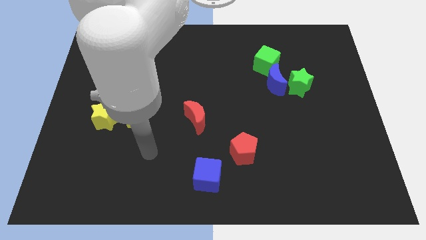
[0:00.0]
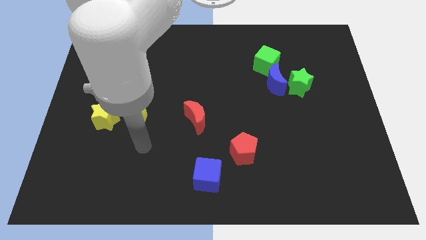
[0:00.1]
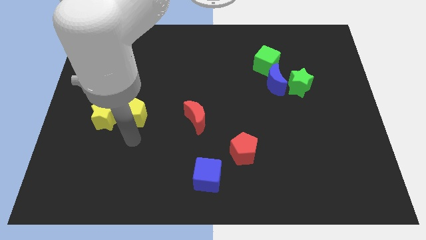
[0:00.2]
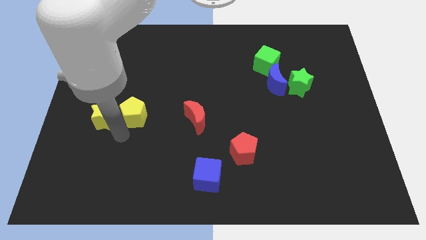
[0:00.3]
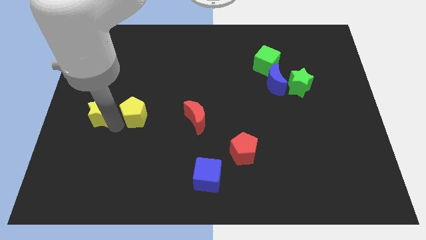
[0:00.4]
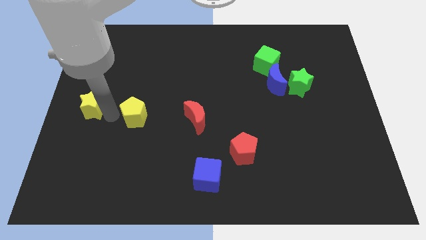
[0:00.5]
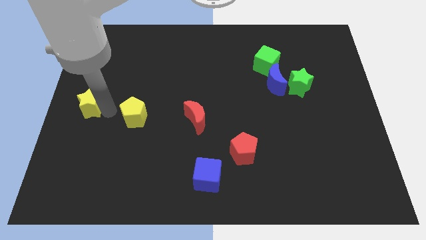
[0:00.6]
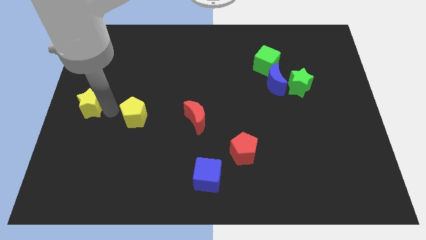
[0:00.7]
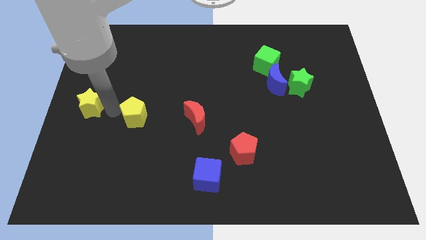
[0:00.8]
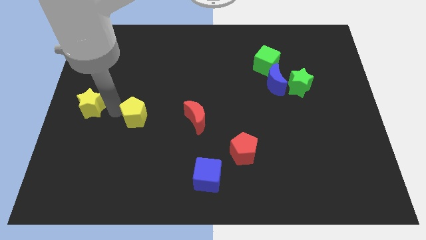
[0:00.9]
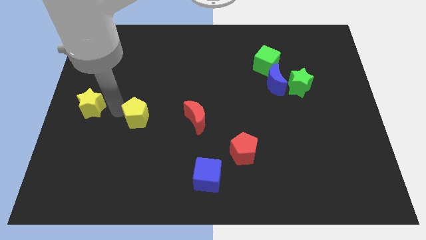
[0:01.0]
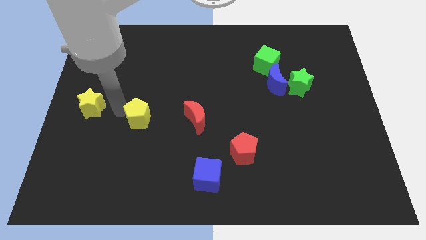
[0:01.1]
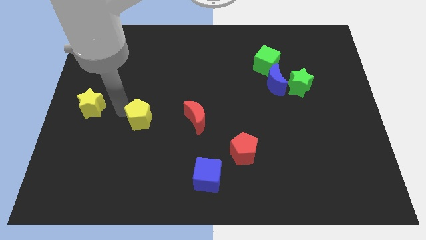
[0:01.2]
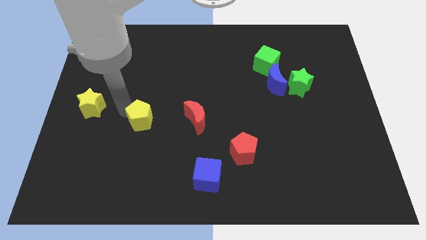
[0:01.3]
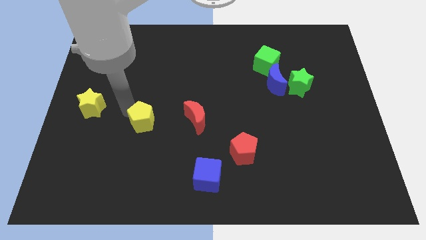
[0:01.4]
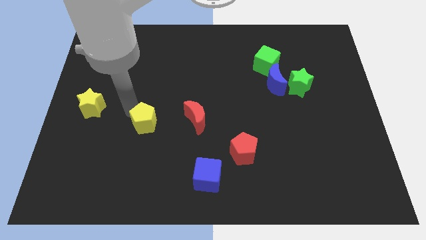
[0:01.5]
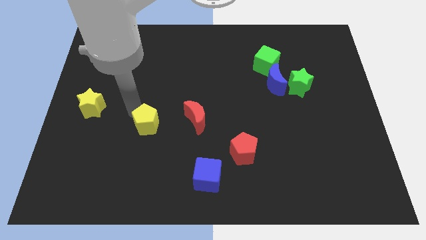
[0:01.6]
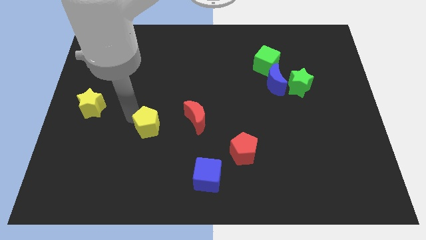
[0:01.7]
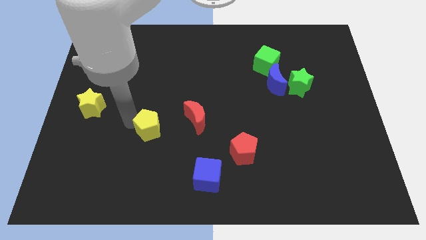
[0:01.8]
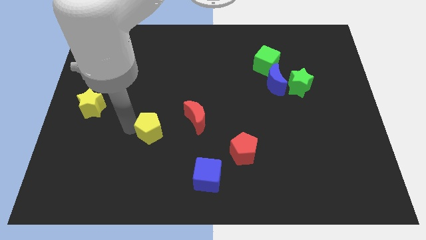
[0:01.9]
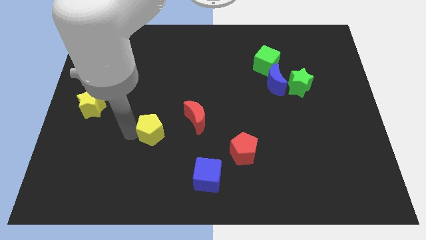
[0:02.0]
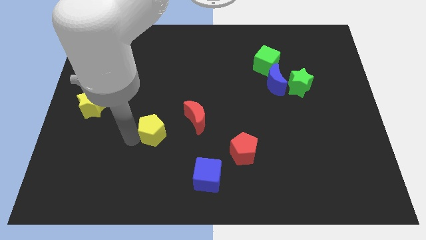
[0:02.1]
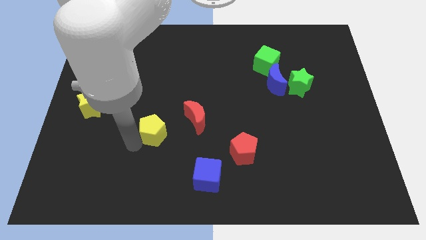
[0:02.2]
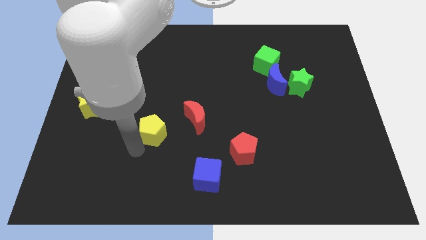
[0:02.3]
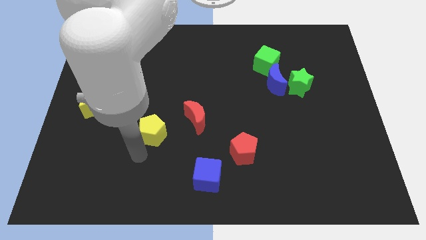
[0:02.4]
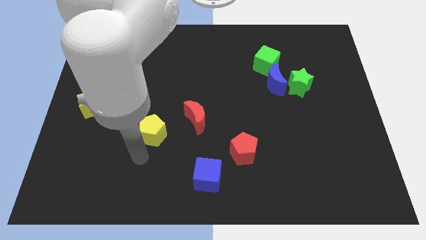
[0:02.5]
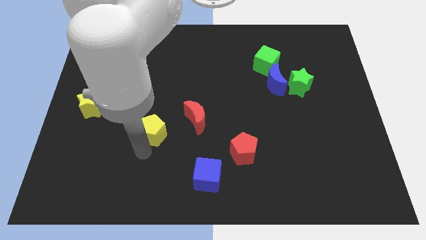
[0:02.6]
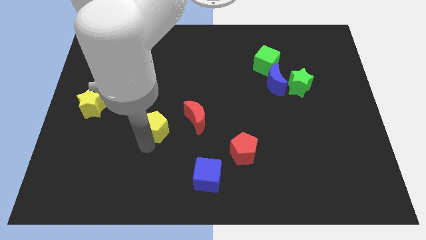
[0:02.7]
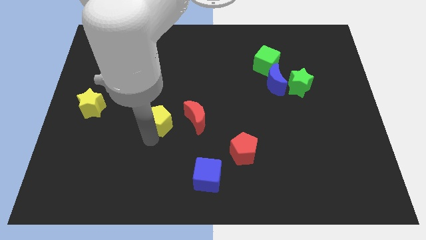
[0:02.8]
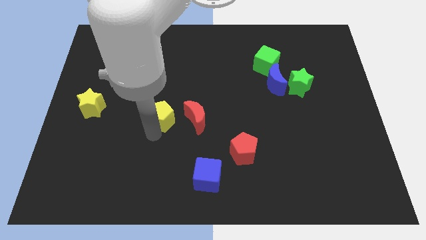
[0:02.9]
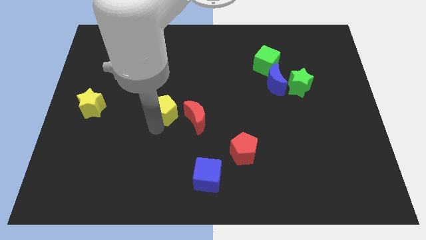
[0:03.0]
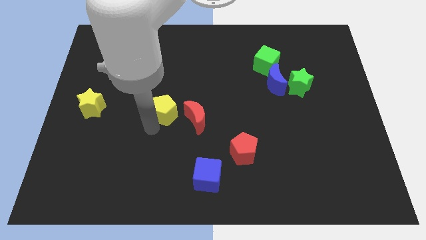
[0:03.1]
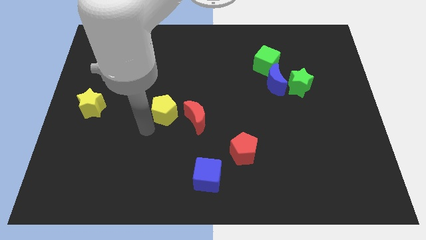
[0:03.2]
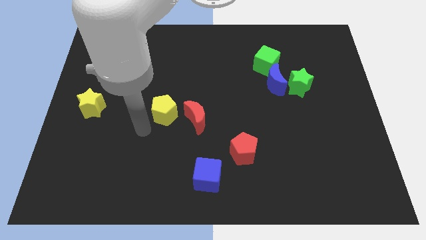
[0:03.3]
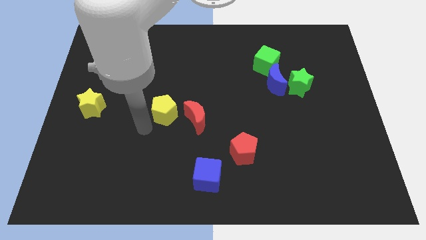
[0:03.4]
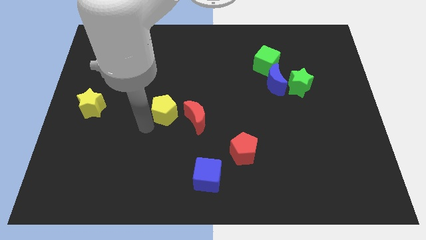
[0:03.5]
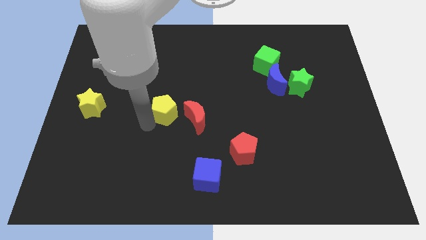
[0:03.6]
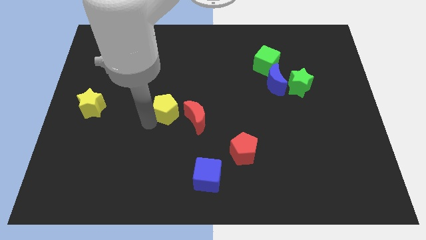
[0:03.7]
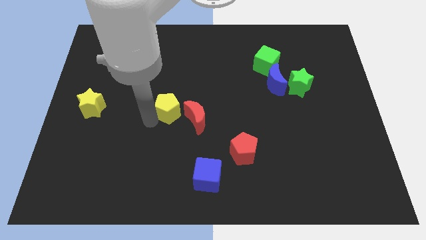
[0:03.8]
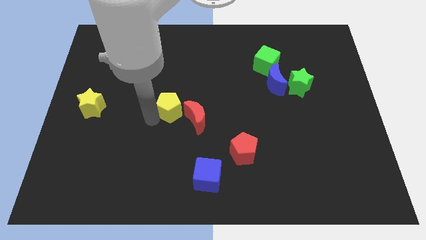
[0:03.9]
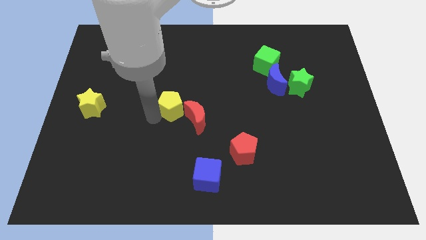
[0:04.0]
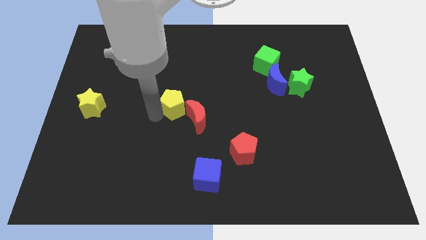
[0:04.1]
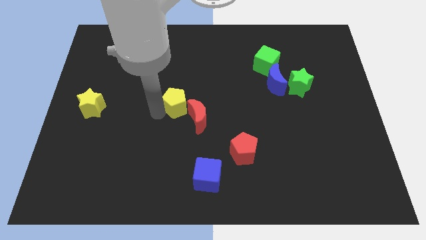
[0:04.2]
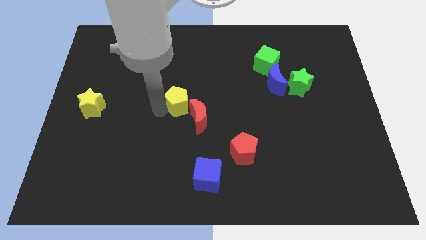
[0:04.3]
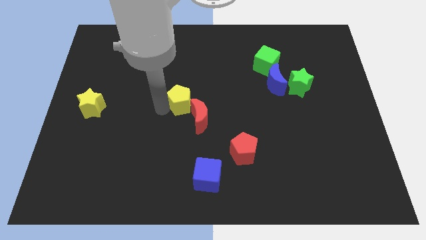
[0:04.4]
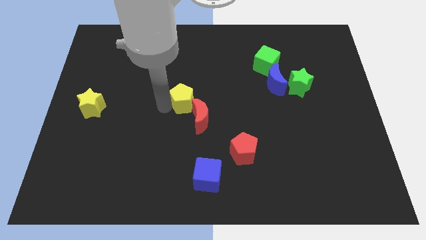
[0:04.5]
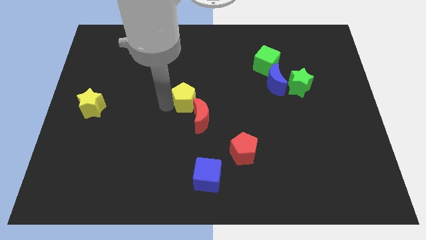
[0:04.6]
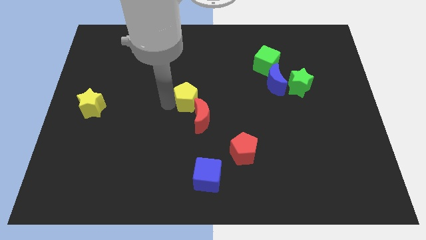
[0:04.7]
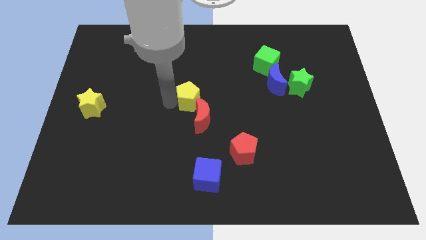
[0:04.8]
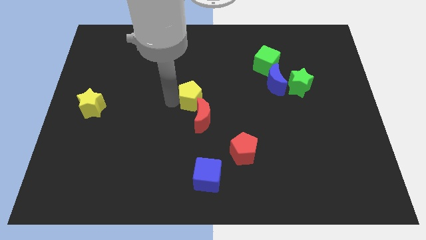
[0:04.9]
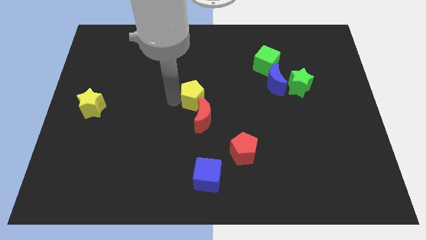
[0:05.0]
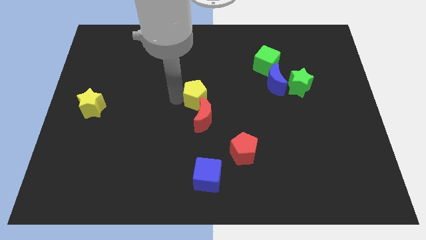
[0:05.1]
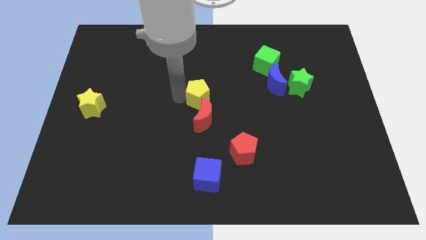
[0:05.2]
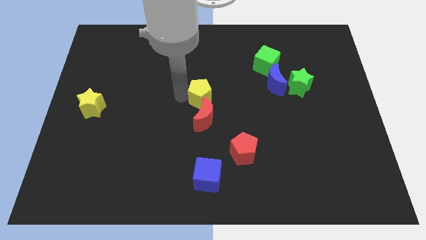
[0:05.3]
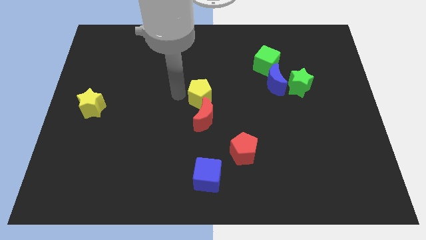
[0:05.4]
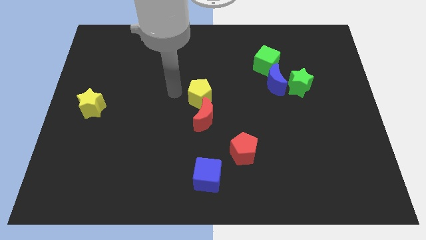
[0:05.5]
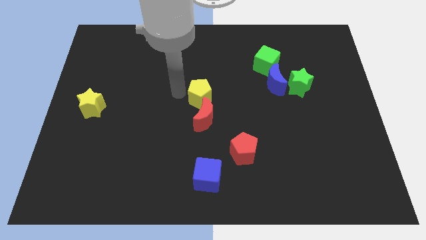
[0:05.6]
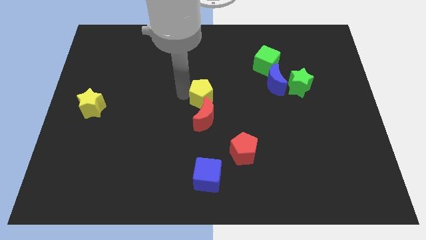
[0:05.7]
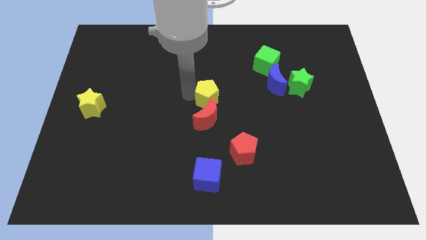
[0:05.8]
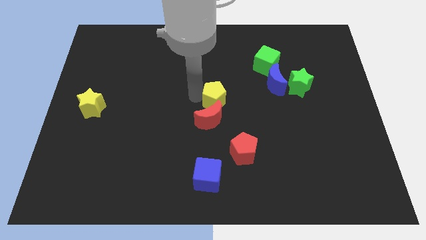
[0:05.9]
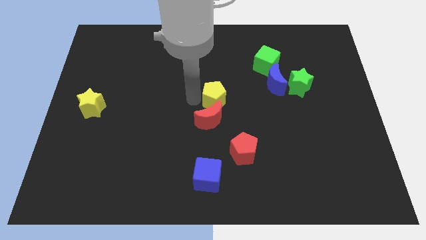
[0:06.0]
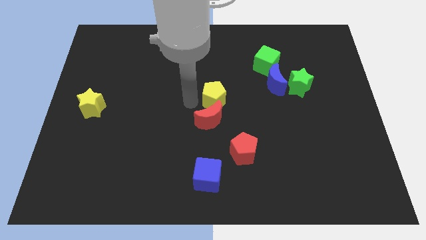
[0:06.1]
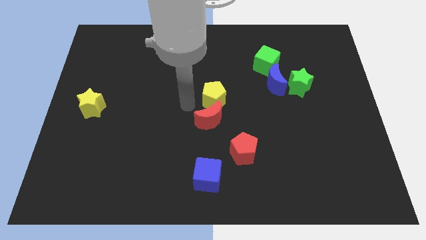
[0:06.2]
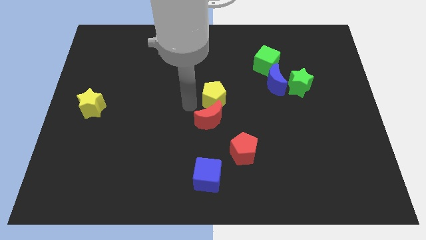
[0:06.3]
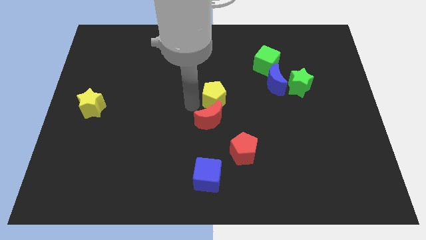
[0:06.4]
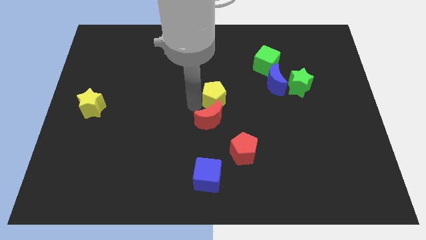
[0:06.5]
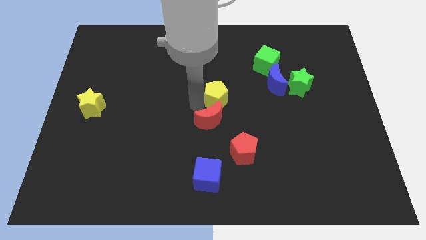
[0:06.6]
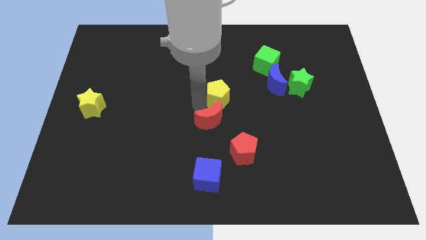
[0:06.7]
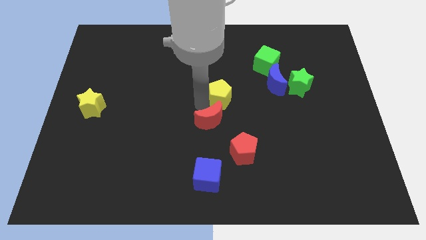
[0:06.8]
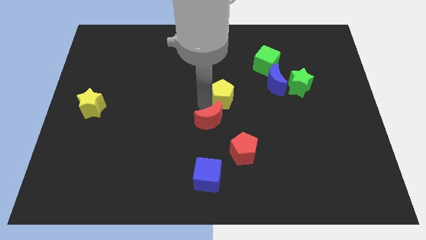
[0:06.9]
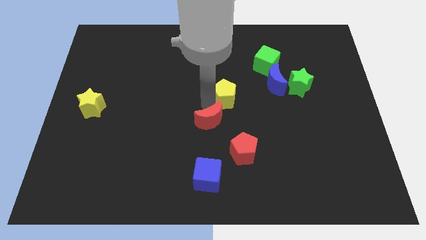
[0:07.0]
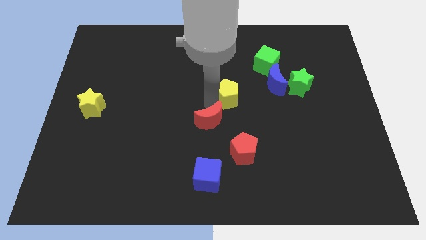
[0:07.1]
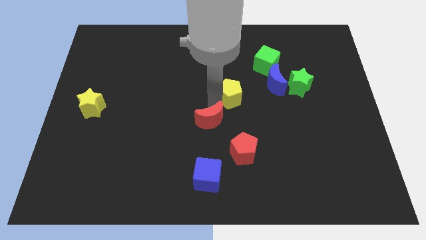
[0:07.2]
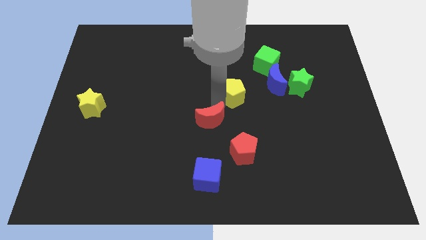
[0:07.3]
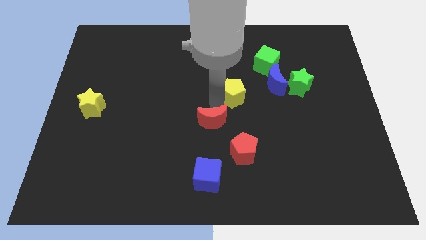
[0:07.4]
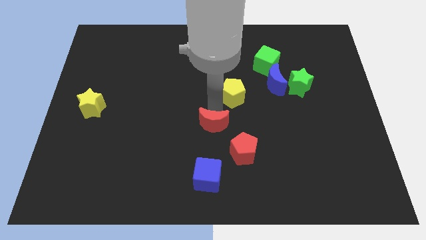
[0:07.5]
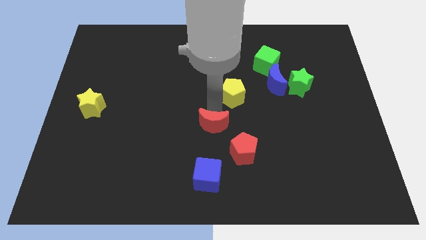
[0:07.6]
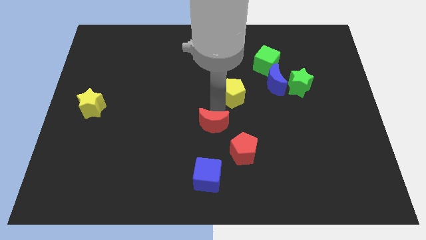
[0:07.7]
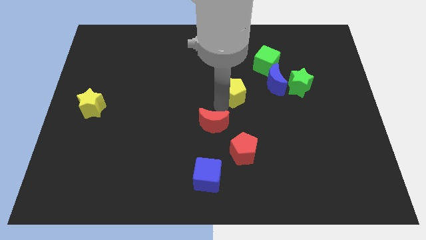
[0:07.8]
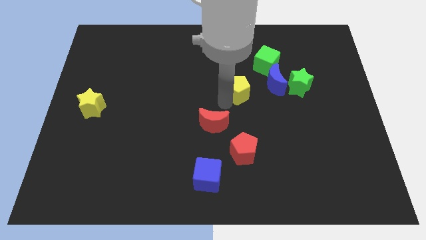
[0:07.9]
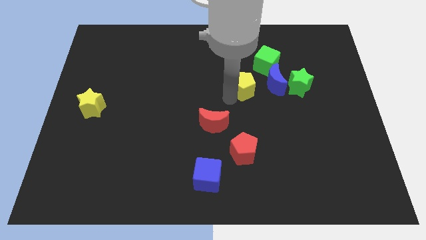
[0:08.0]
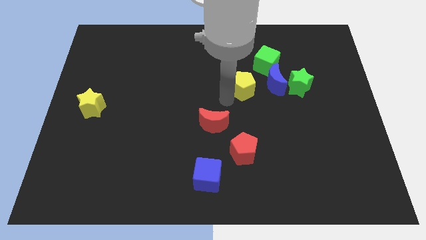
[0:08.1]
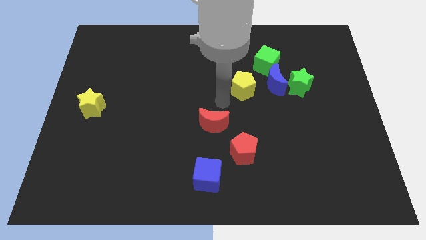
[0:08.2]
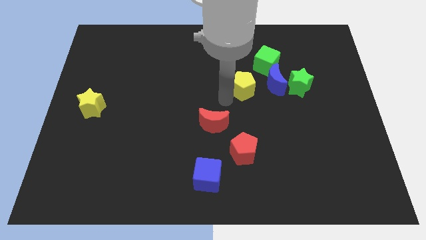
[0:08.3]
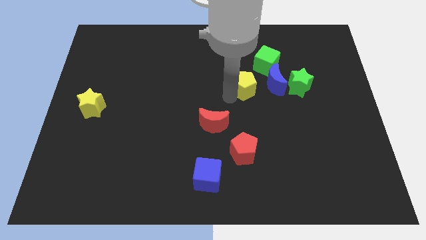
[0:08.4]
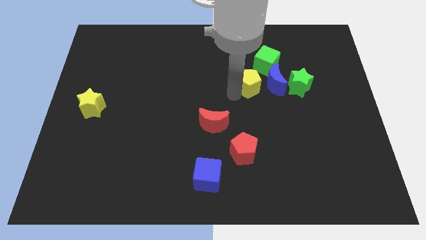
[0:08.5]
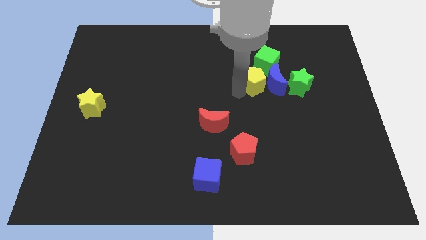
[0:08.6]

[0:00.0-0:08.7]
put the yellow pentagon next to the blue moon
